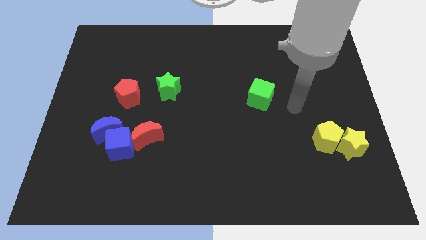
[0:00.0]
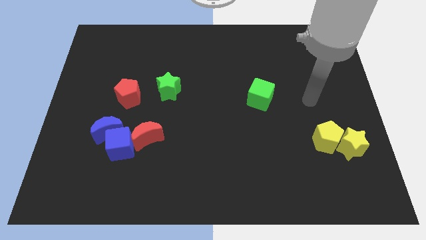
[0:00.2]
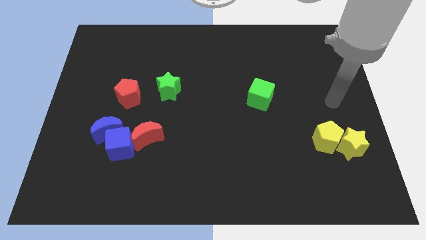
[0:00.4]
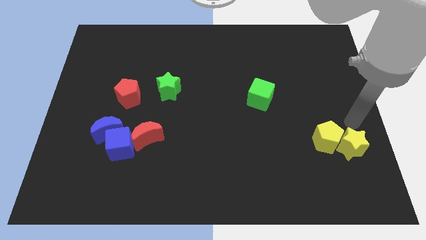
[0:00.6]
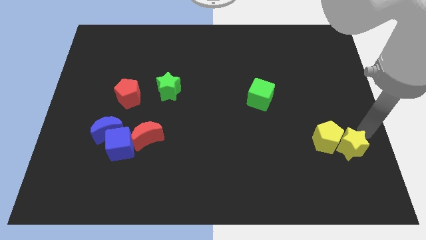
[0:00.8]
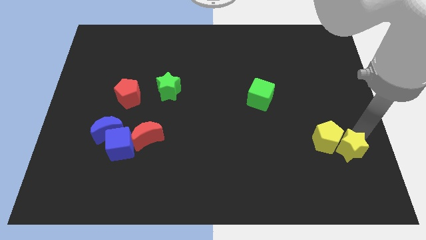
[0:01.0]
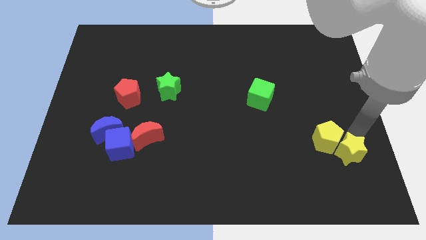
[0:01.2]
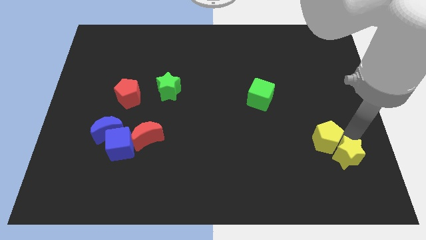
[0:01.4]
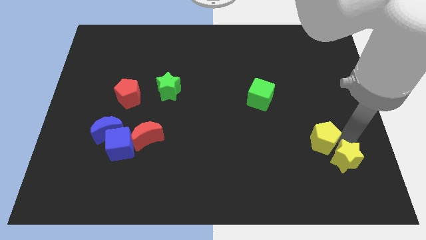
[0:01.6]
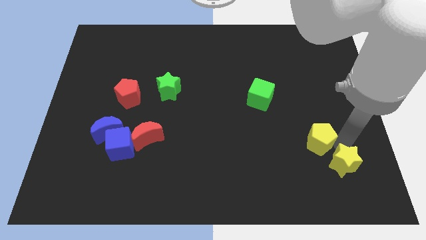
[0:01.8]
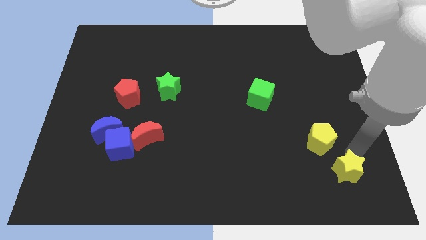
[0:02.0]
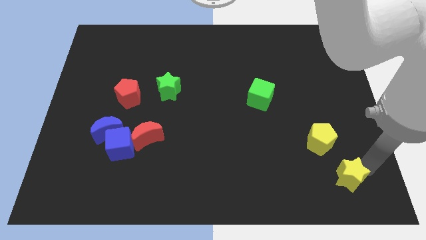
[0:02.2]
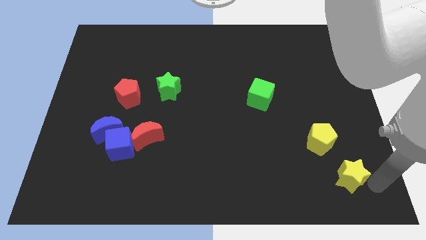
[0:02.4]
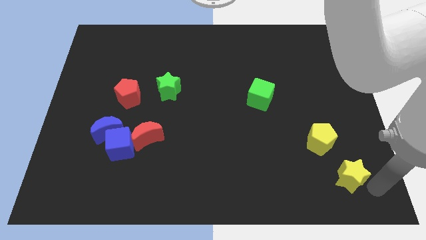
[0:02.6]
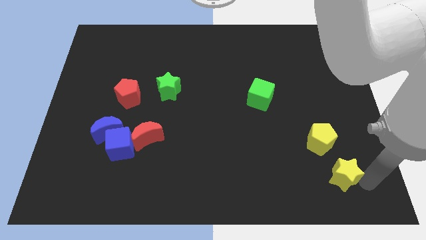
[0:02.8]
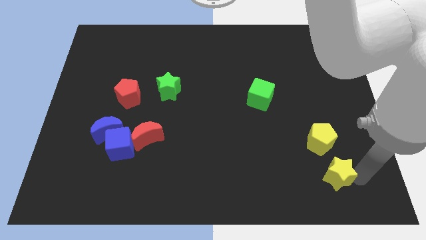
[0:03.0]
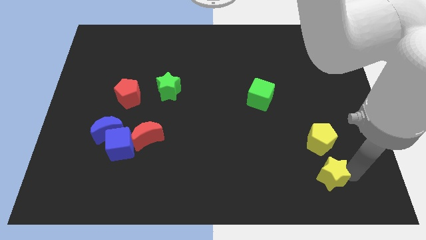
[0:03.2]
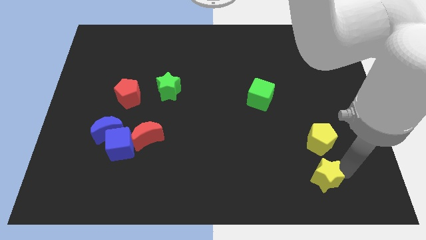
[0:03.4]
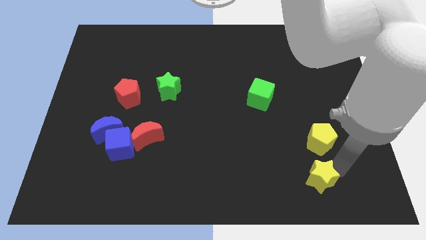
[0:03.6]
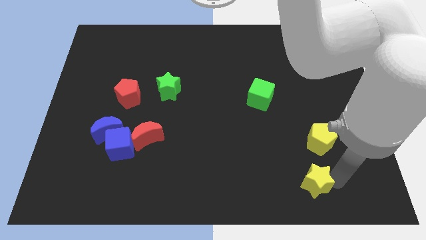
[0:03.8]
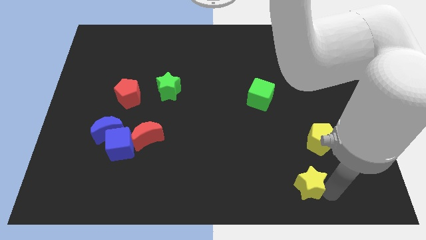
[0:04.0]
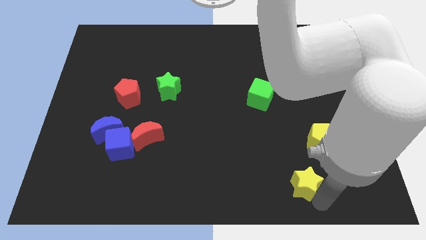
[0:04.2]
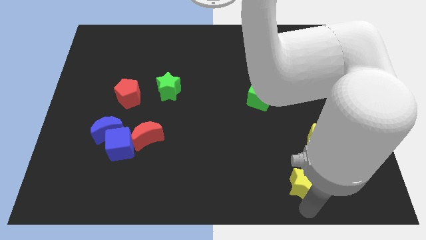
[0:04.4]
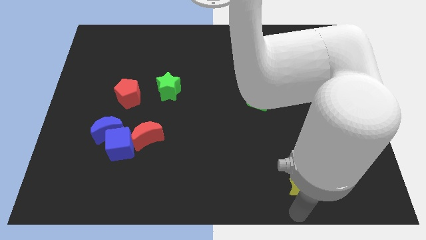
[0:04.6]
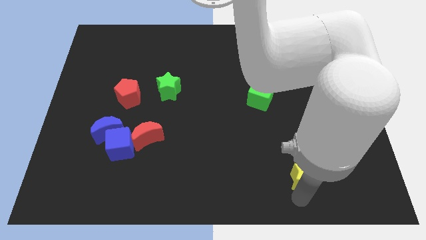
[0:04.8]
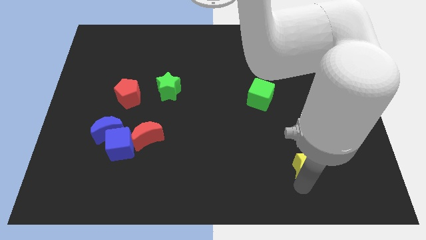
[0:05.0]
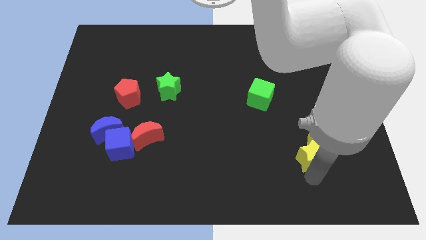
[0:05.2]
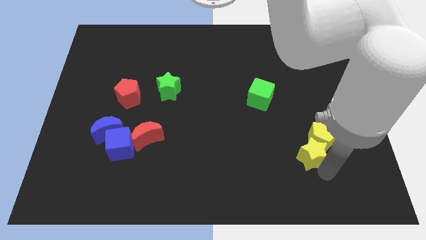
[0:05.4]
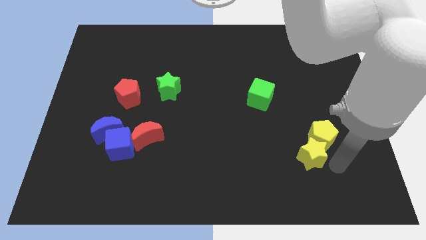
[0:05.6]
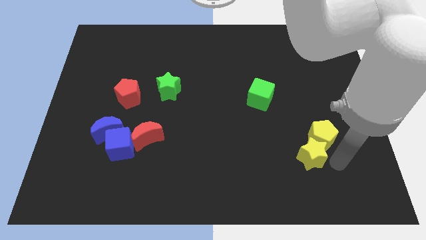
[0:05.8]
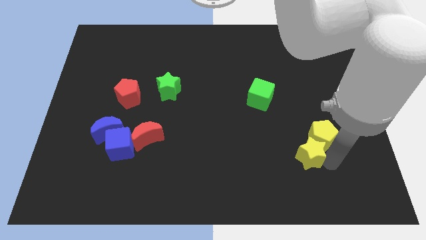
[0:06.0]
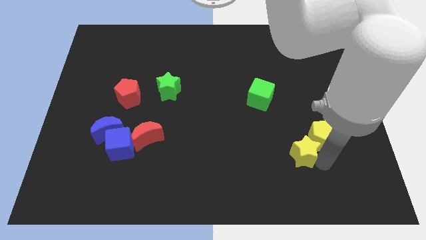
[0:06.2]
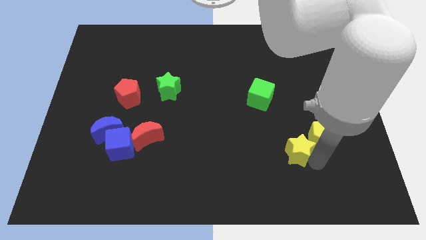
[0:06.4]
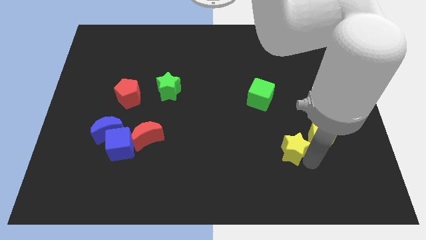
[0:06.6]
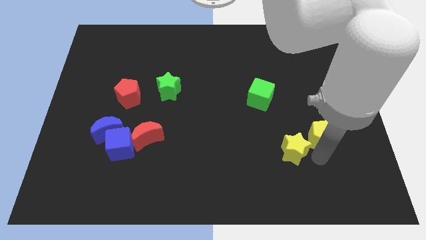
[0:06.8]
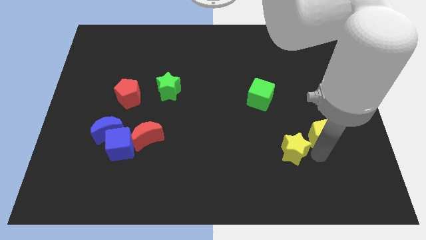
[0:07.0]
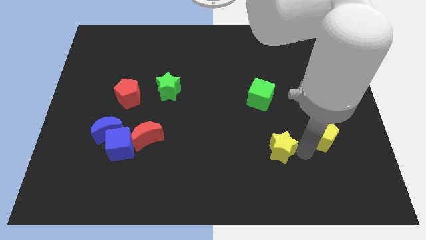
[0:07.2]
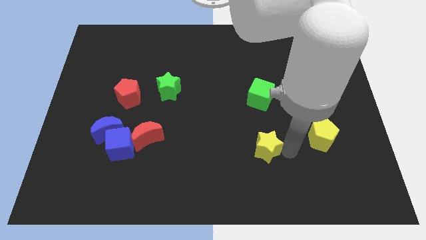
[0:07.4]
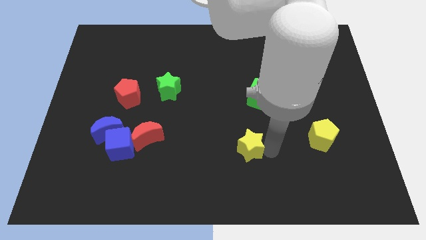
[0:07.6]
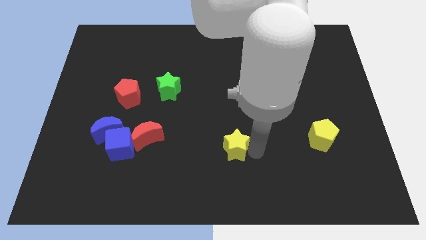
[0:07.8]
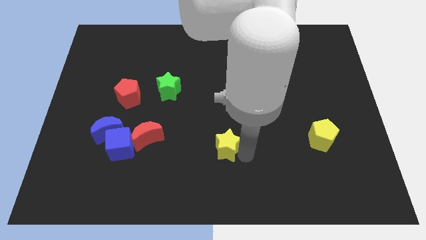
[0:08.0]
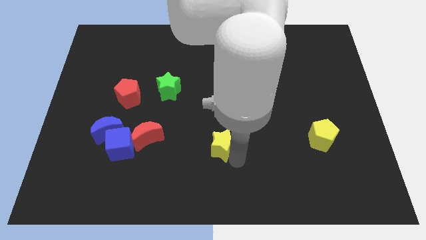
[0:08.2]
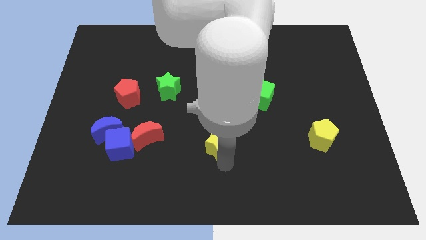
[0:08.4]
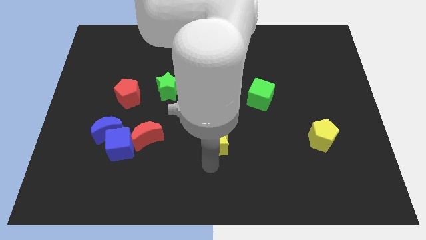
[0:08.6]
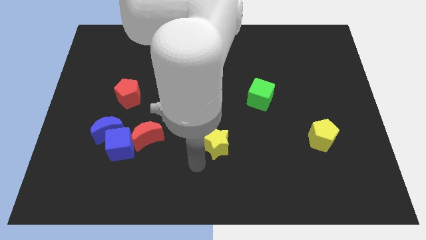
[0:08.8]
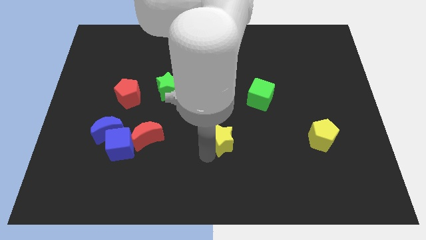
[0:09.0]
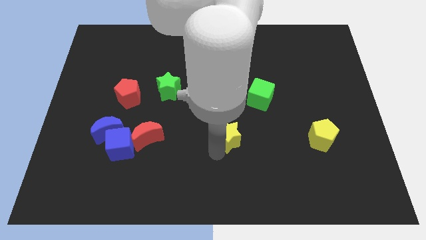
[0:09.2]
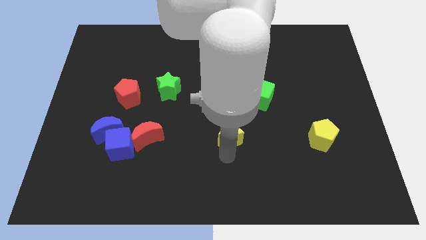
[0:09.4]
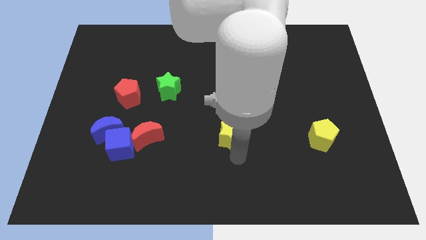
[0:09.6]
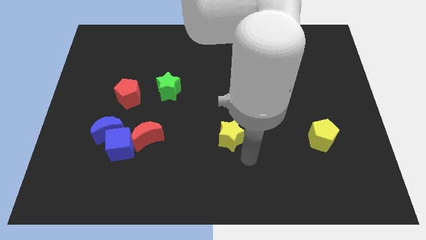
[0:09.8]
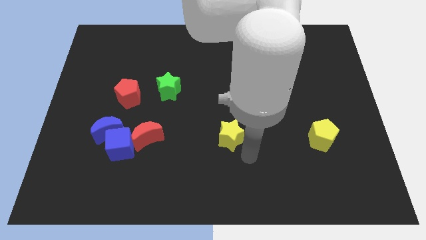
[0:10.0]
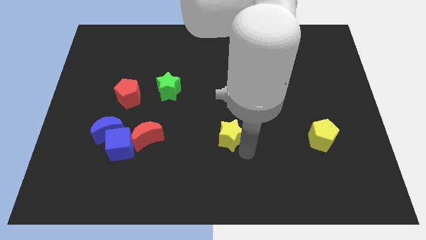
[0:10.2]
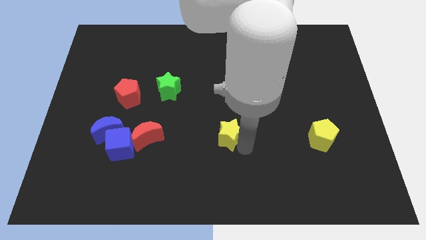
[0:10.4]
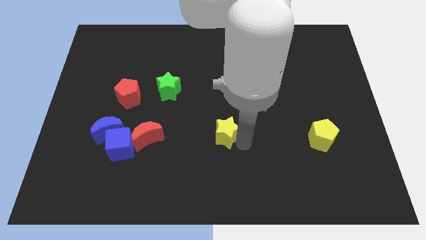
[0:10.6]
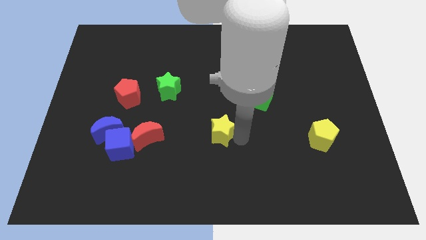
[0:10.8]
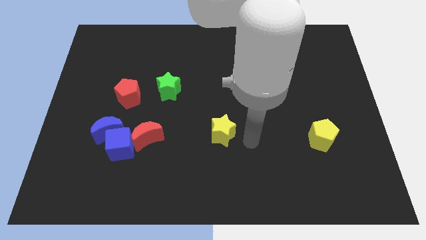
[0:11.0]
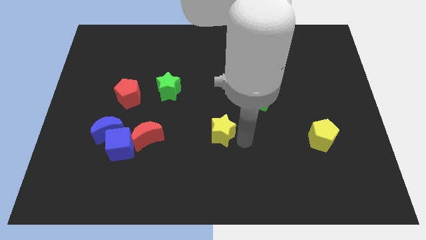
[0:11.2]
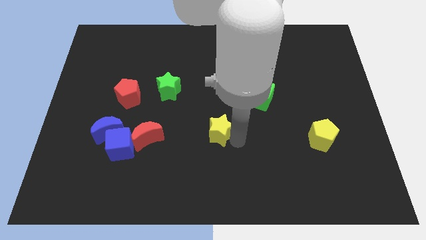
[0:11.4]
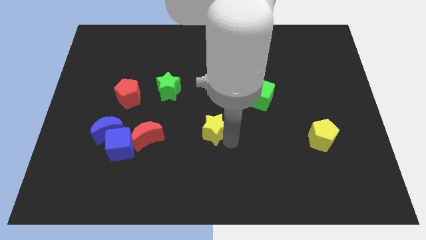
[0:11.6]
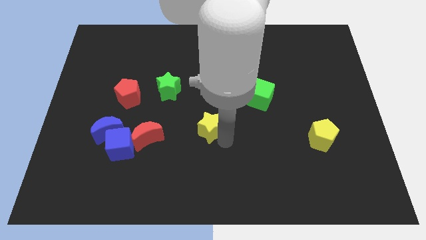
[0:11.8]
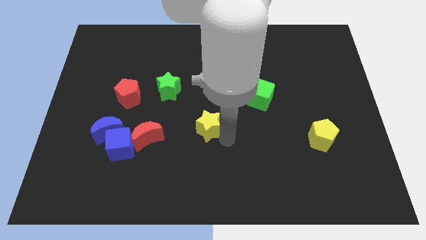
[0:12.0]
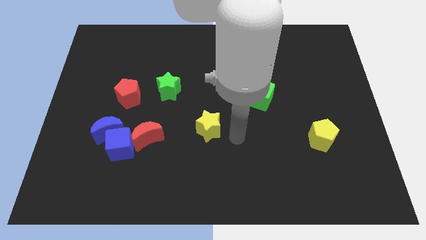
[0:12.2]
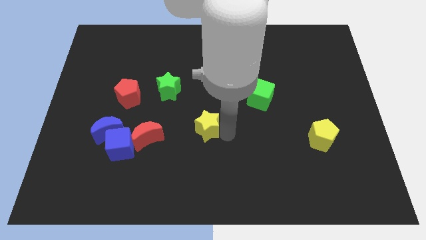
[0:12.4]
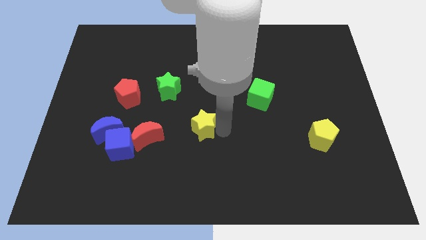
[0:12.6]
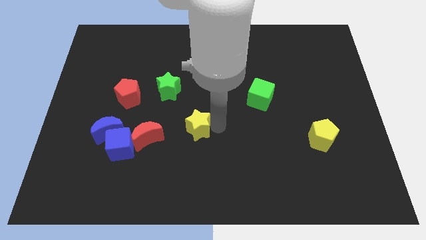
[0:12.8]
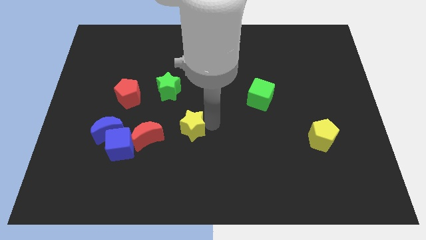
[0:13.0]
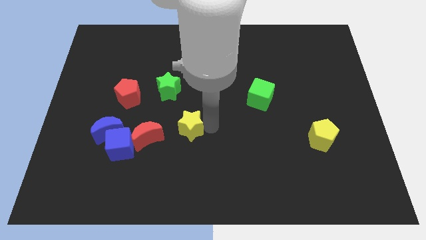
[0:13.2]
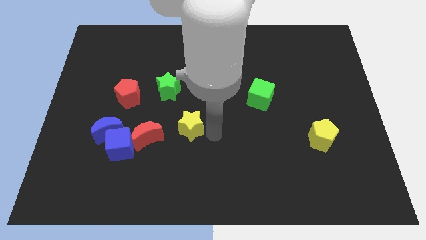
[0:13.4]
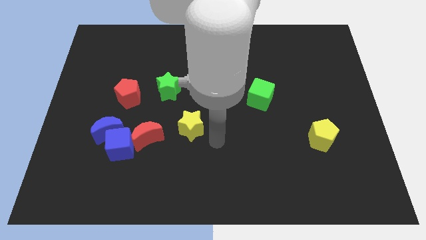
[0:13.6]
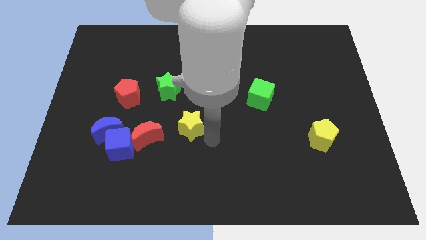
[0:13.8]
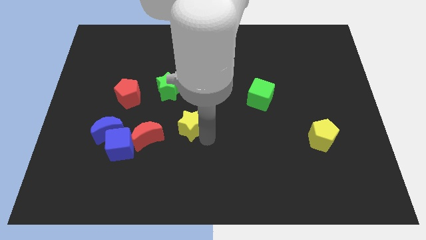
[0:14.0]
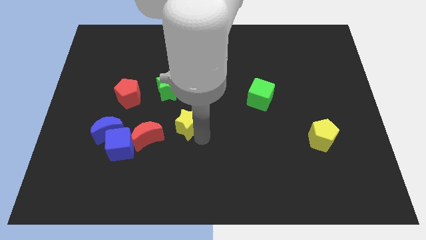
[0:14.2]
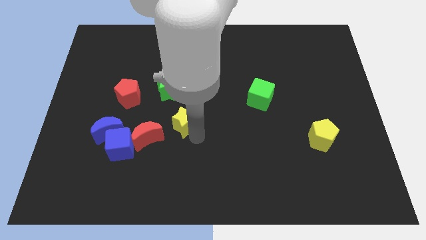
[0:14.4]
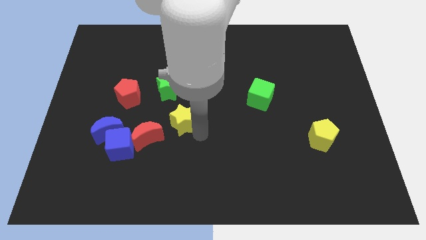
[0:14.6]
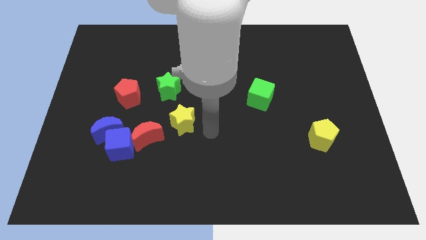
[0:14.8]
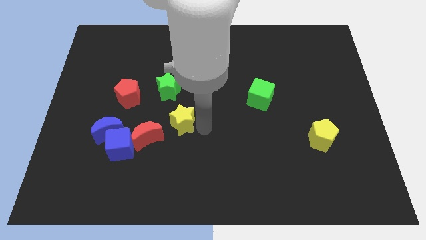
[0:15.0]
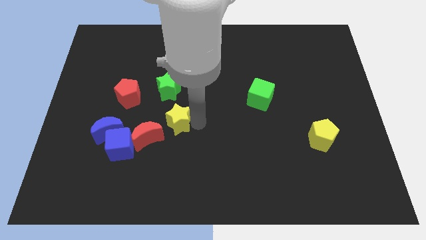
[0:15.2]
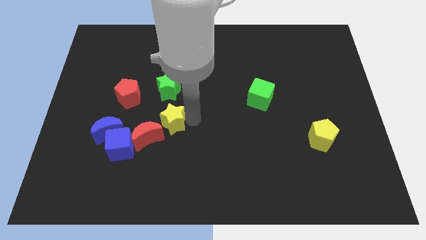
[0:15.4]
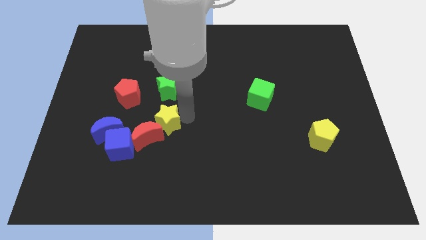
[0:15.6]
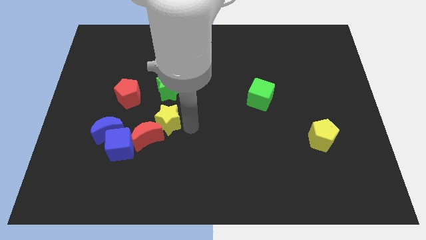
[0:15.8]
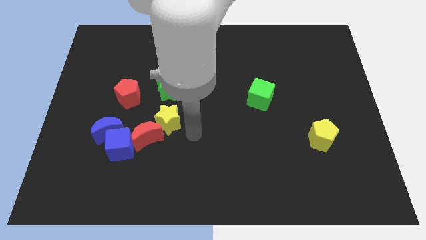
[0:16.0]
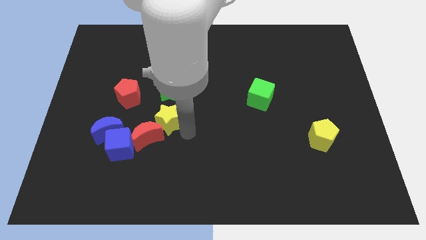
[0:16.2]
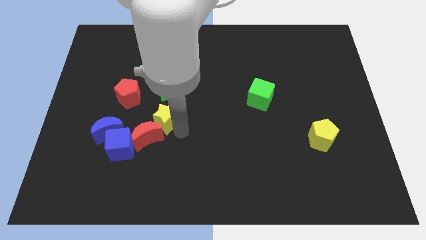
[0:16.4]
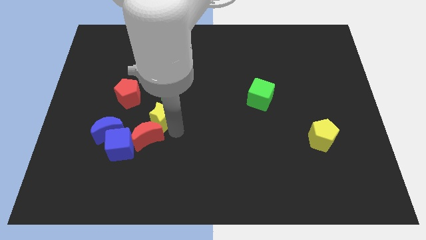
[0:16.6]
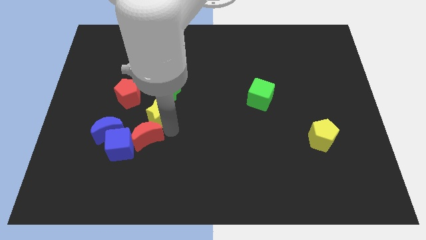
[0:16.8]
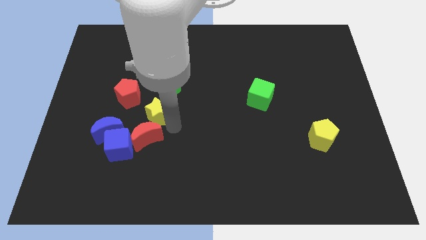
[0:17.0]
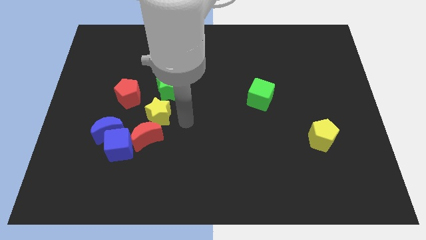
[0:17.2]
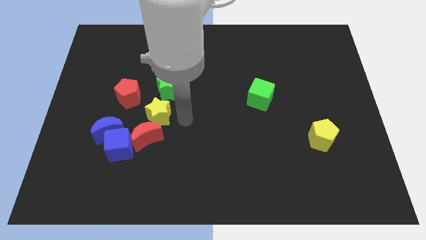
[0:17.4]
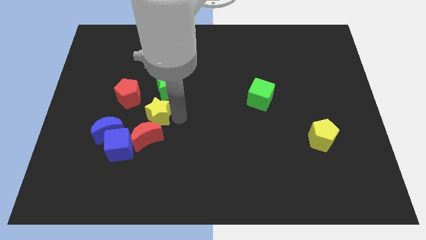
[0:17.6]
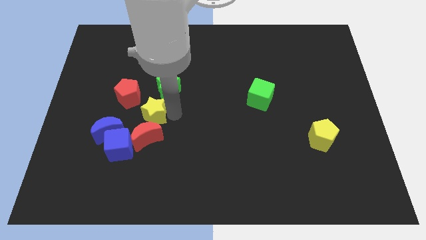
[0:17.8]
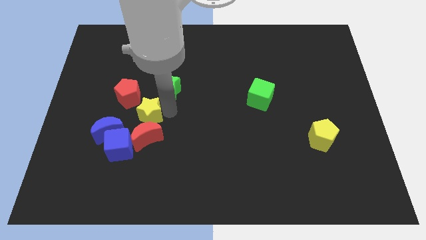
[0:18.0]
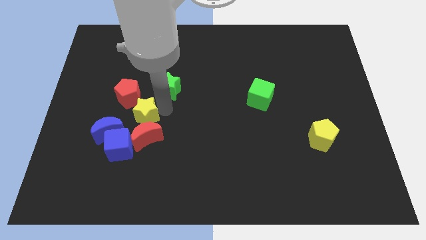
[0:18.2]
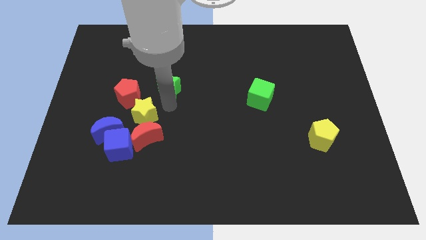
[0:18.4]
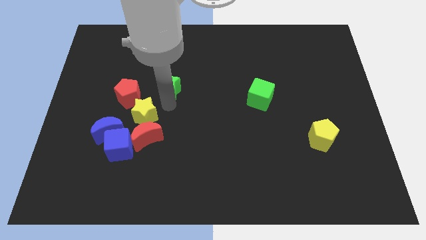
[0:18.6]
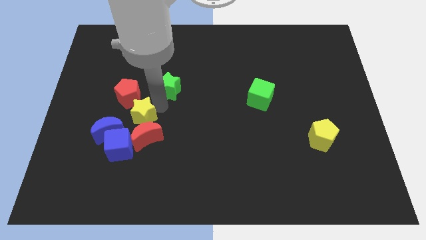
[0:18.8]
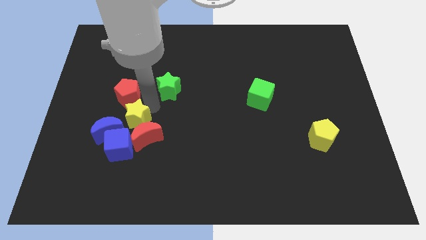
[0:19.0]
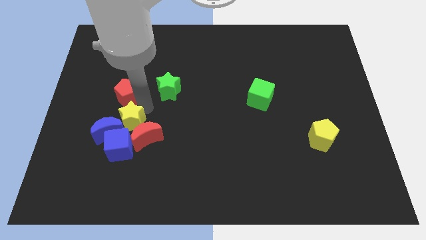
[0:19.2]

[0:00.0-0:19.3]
push the yellow star close to the blue moon
